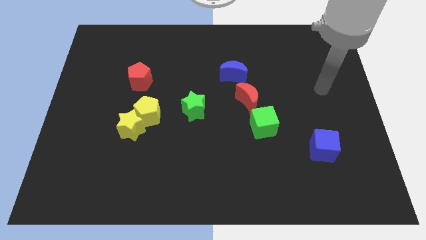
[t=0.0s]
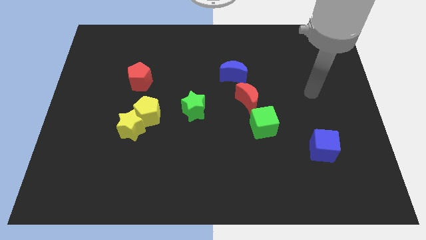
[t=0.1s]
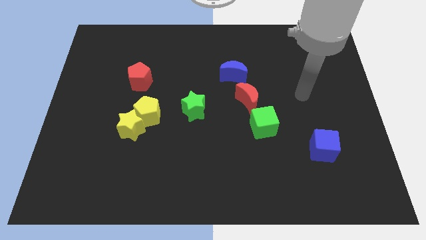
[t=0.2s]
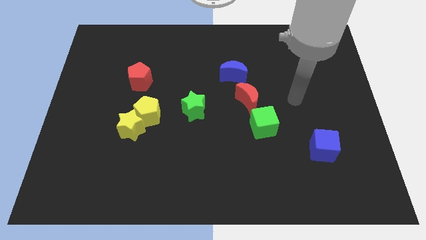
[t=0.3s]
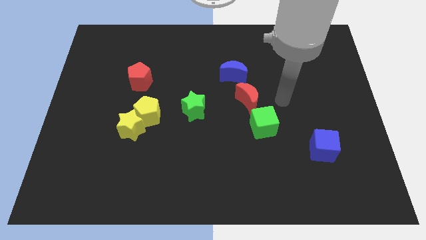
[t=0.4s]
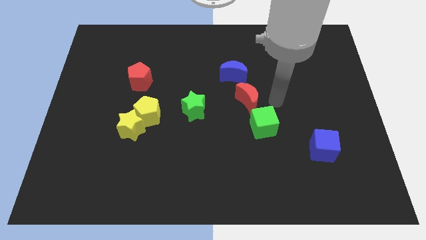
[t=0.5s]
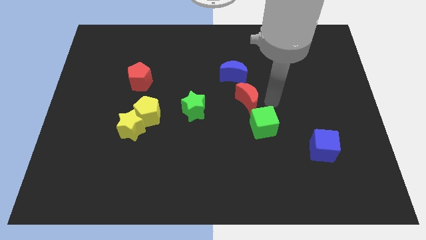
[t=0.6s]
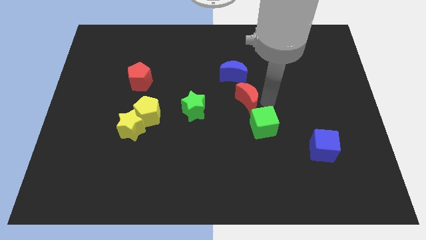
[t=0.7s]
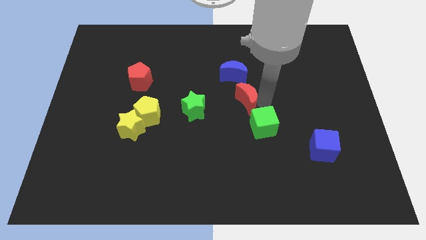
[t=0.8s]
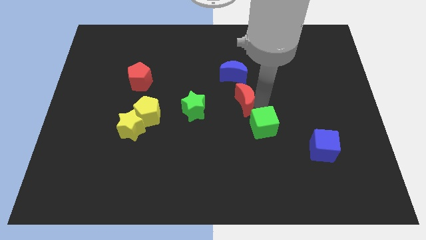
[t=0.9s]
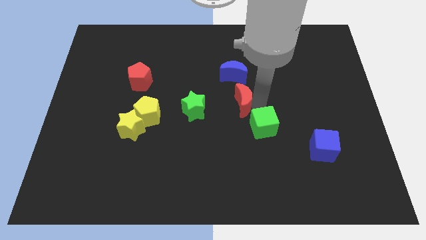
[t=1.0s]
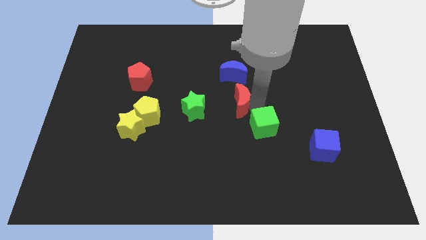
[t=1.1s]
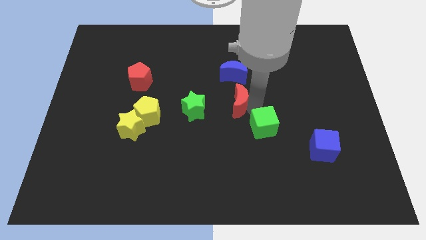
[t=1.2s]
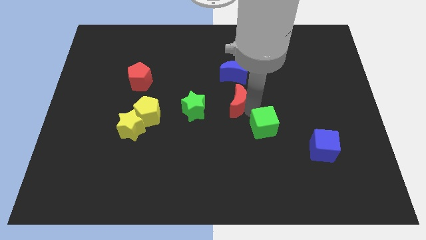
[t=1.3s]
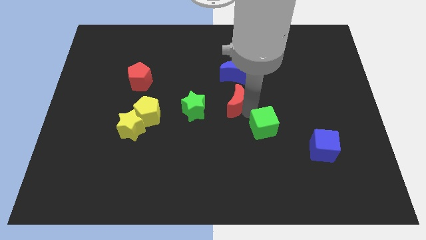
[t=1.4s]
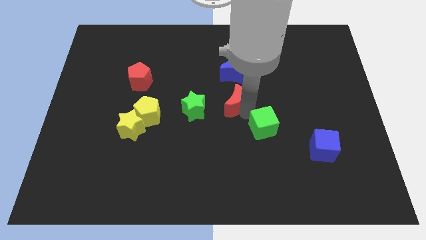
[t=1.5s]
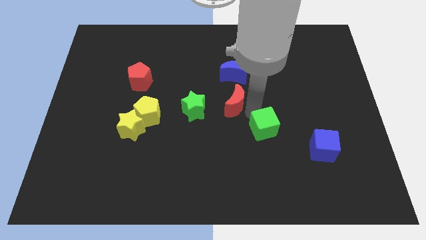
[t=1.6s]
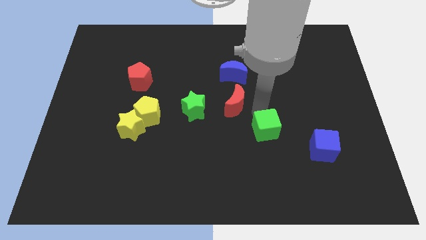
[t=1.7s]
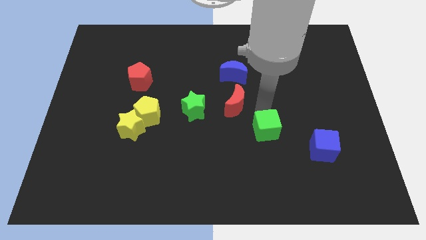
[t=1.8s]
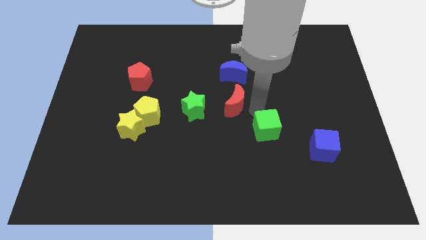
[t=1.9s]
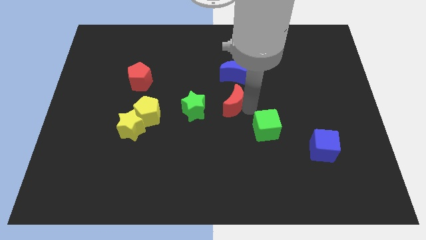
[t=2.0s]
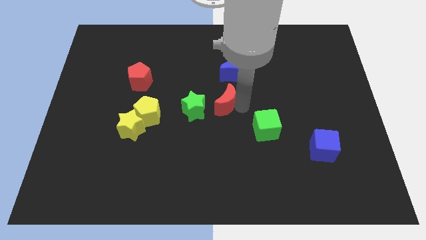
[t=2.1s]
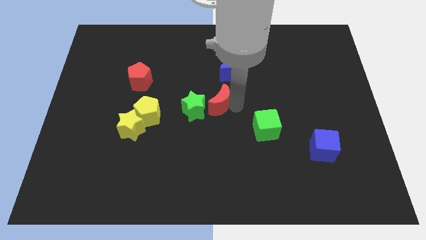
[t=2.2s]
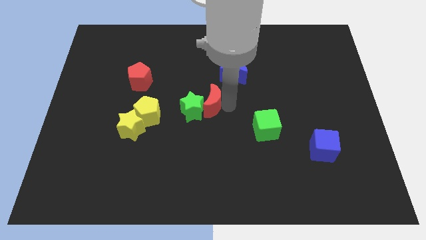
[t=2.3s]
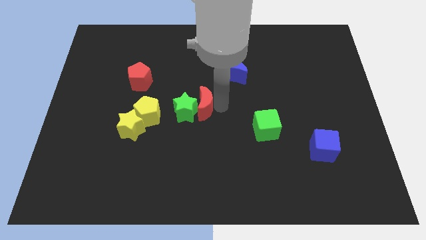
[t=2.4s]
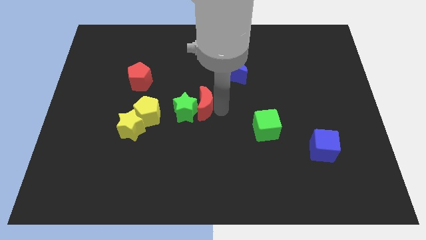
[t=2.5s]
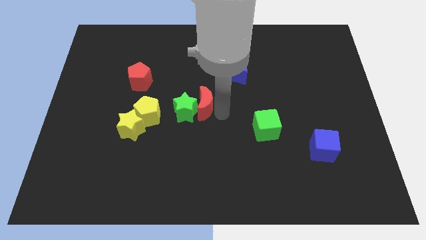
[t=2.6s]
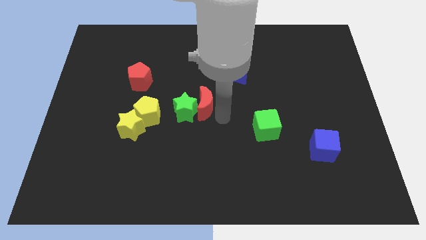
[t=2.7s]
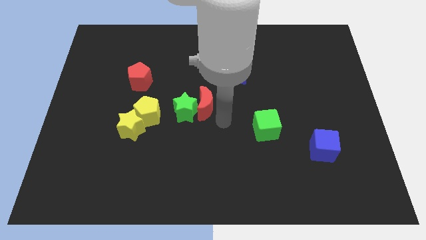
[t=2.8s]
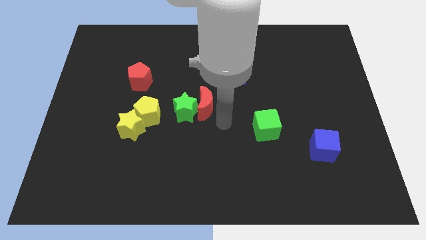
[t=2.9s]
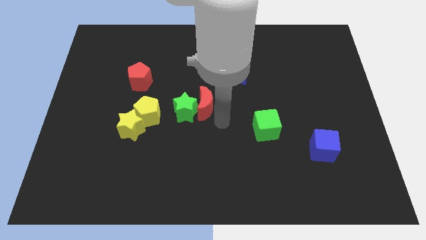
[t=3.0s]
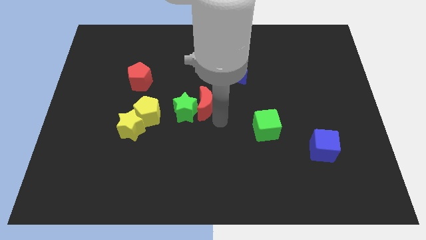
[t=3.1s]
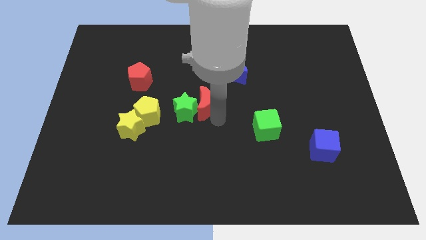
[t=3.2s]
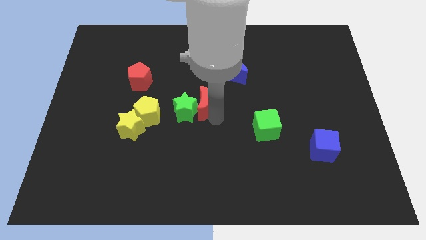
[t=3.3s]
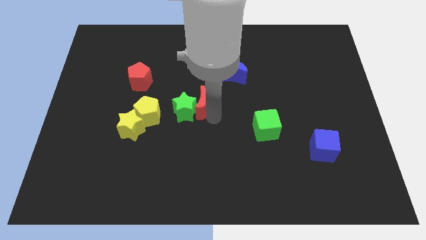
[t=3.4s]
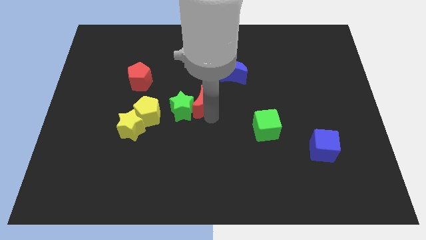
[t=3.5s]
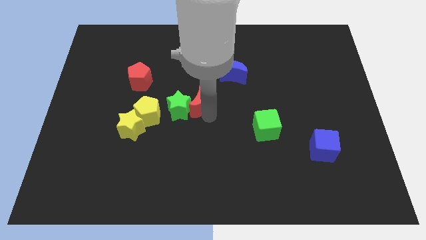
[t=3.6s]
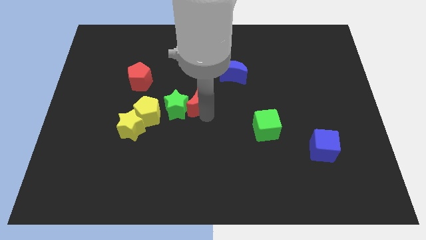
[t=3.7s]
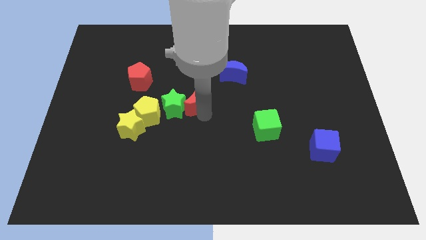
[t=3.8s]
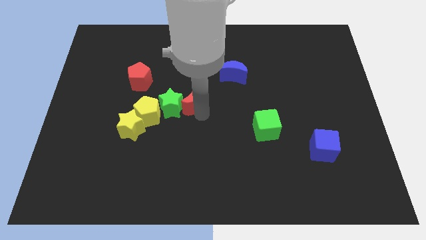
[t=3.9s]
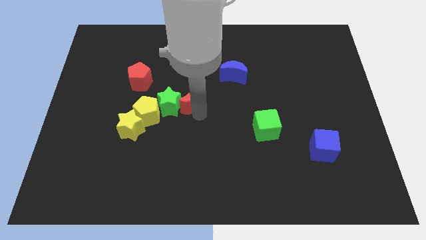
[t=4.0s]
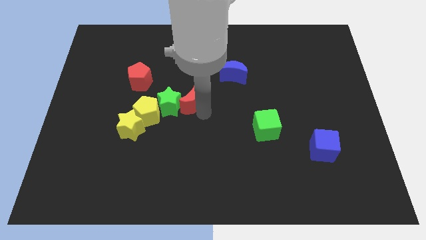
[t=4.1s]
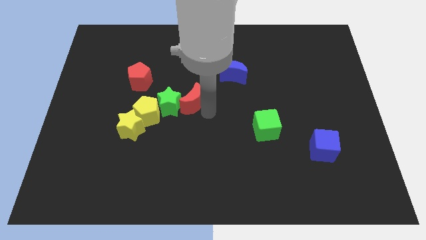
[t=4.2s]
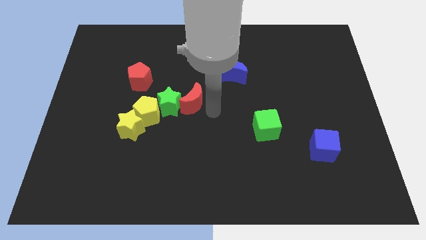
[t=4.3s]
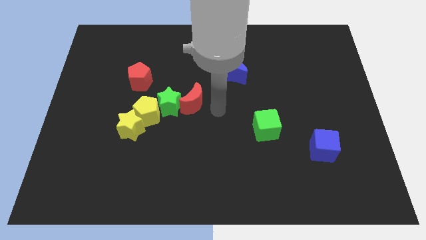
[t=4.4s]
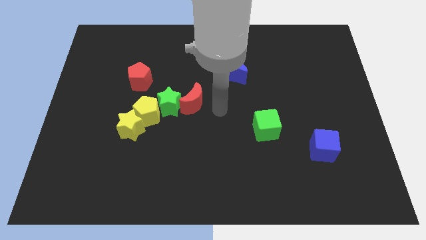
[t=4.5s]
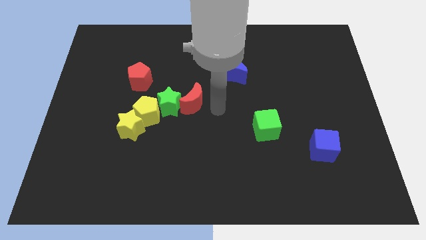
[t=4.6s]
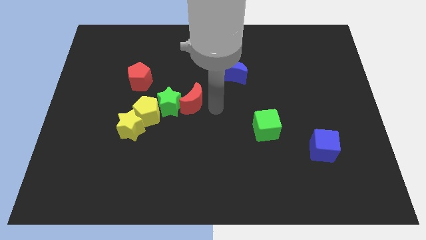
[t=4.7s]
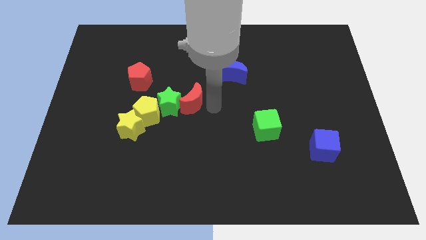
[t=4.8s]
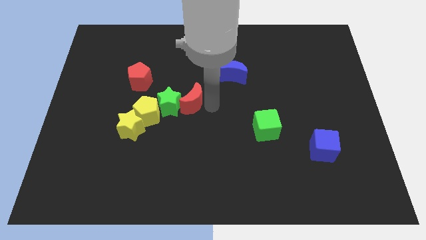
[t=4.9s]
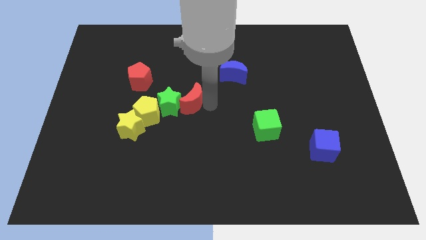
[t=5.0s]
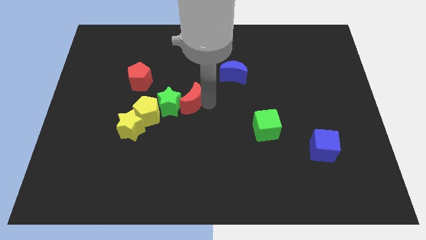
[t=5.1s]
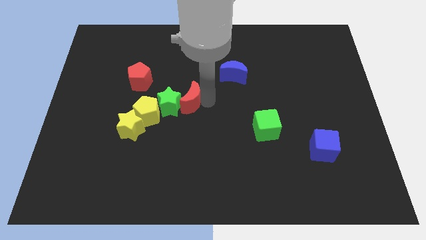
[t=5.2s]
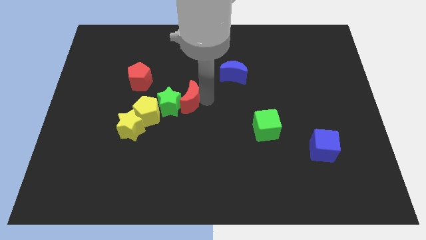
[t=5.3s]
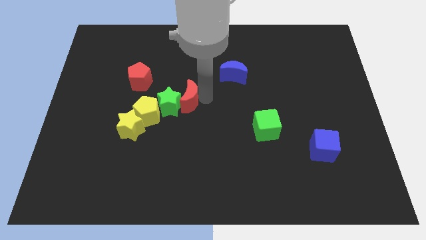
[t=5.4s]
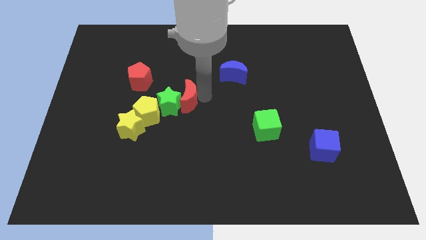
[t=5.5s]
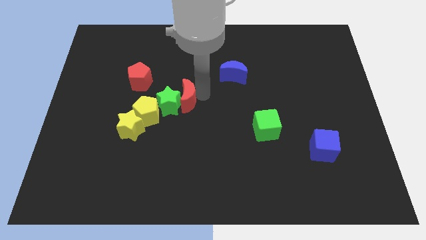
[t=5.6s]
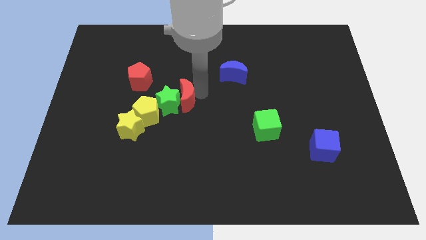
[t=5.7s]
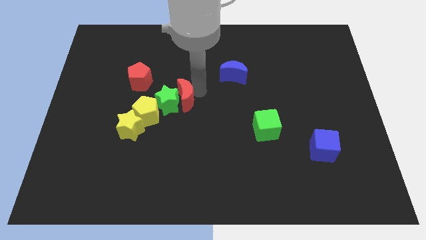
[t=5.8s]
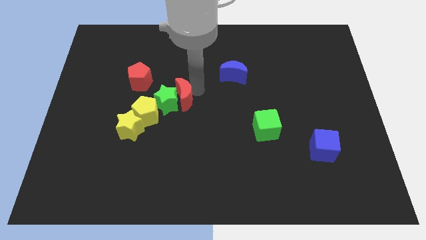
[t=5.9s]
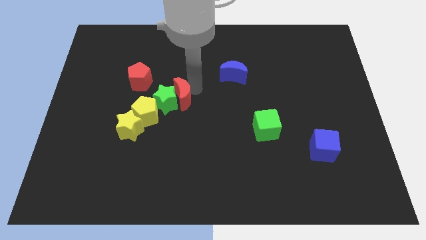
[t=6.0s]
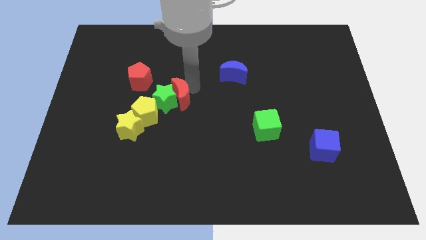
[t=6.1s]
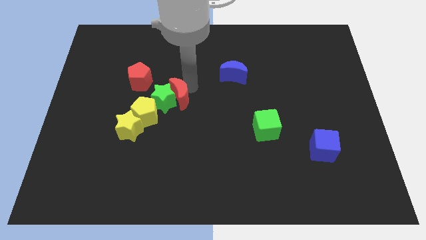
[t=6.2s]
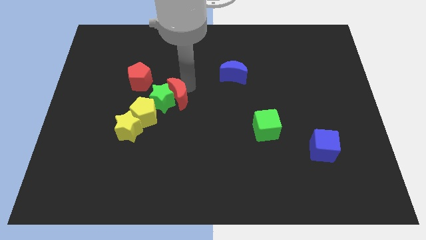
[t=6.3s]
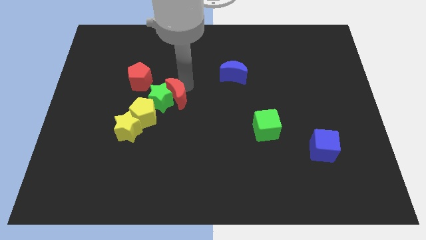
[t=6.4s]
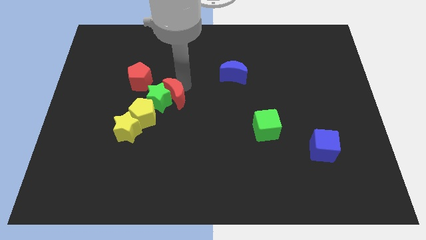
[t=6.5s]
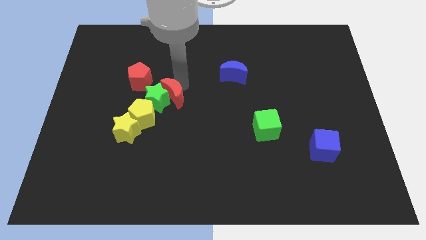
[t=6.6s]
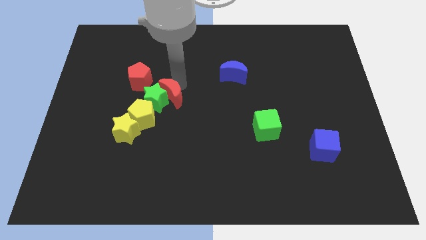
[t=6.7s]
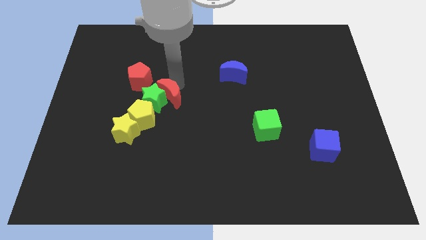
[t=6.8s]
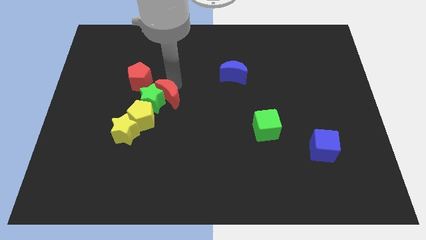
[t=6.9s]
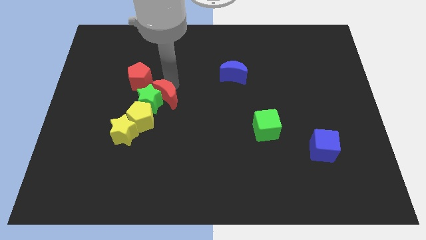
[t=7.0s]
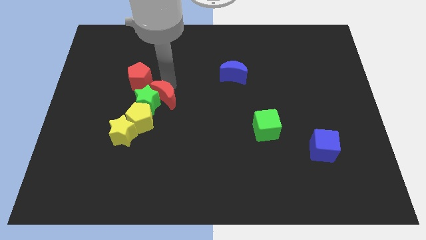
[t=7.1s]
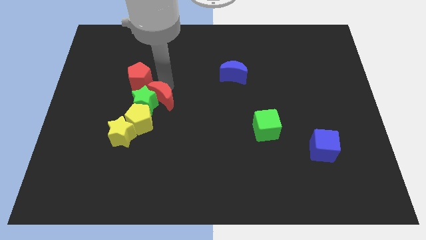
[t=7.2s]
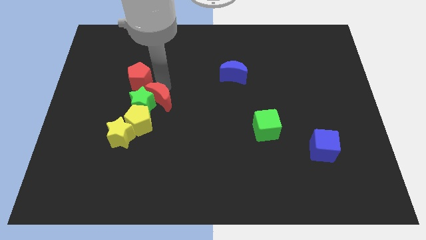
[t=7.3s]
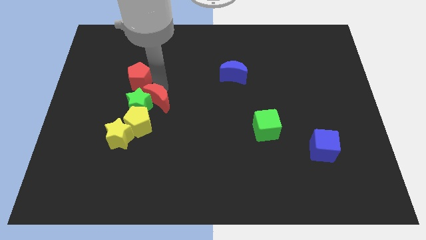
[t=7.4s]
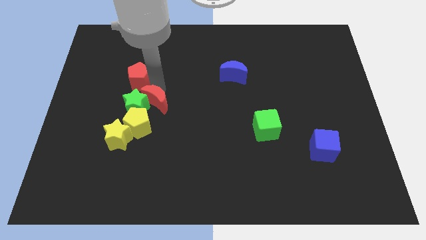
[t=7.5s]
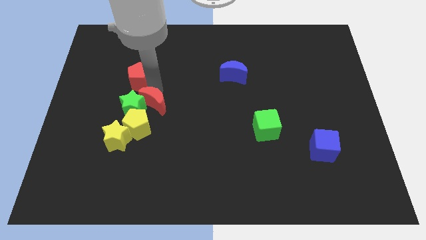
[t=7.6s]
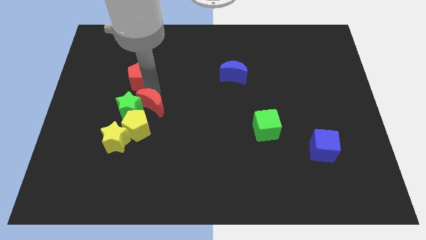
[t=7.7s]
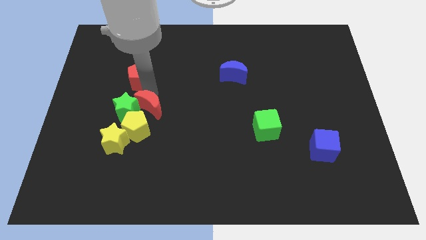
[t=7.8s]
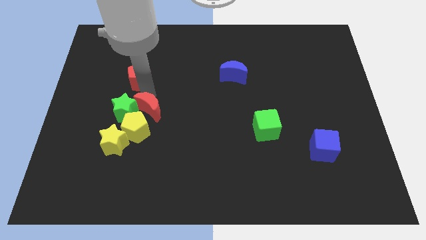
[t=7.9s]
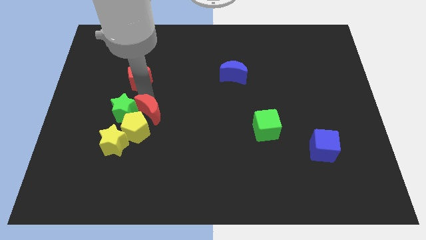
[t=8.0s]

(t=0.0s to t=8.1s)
slide the red moon to the yellow pentagon
